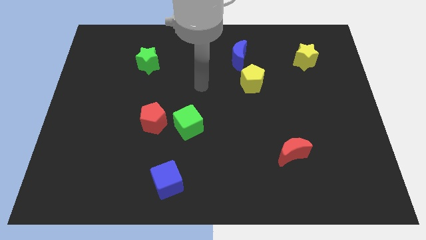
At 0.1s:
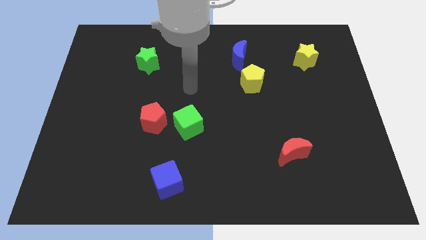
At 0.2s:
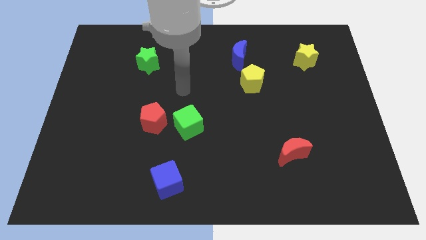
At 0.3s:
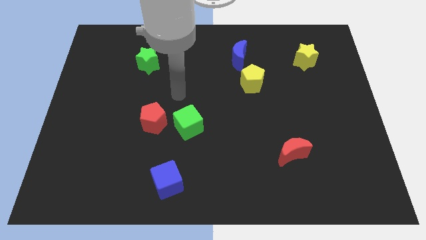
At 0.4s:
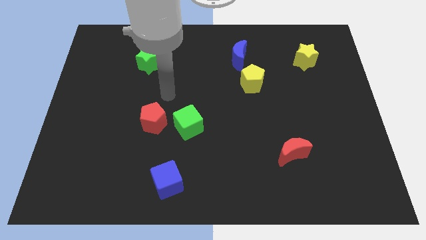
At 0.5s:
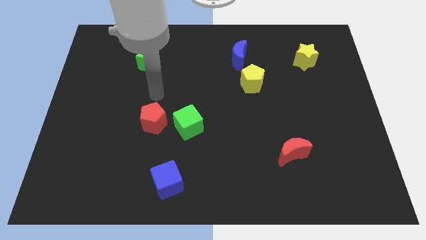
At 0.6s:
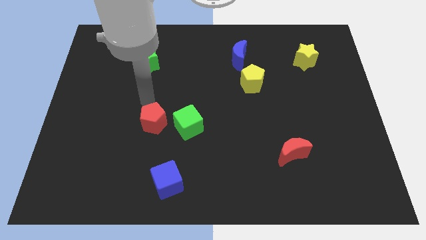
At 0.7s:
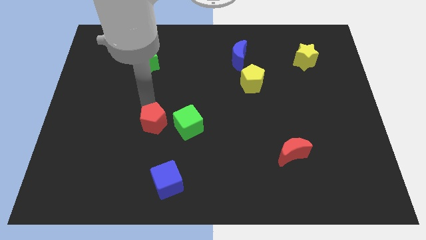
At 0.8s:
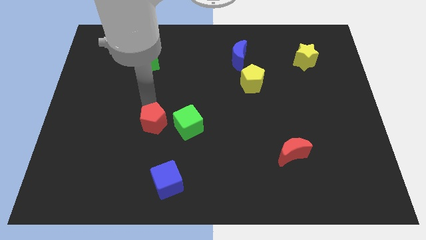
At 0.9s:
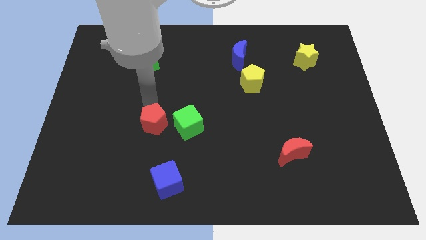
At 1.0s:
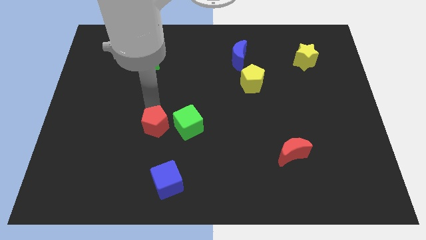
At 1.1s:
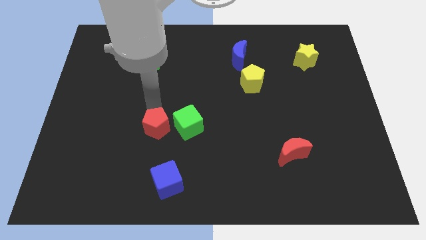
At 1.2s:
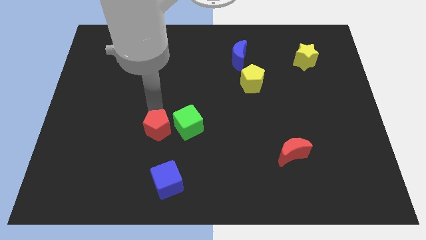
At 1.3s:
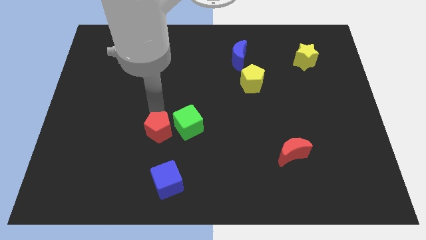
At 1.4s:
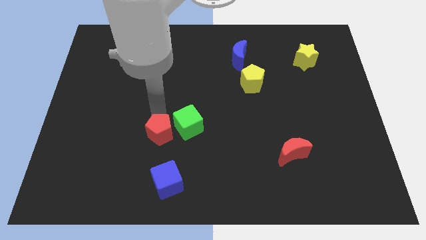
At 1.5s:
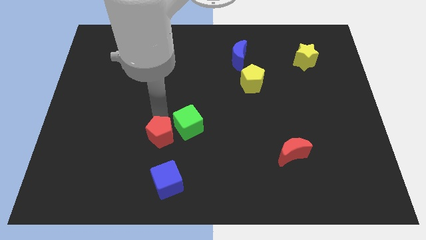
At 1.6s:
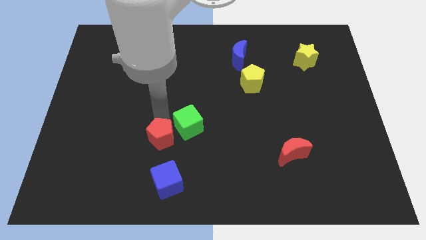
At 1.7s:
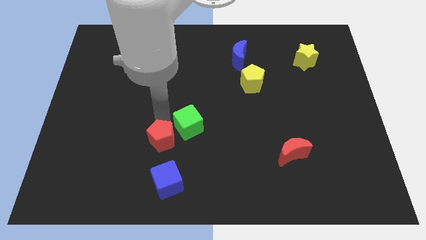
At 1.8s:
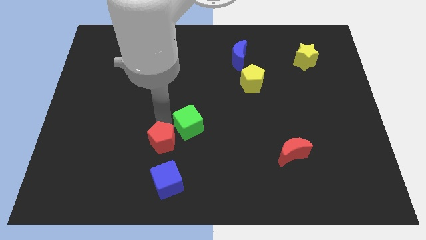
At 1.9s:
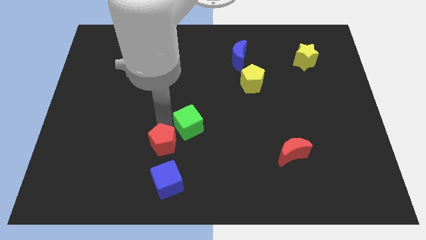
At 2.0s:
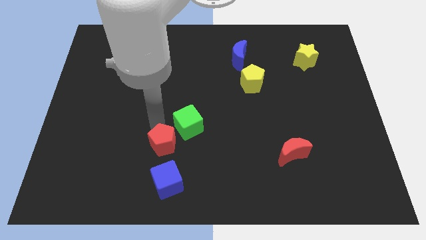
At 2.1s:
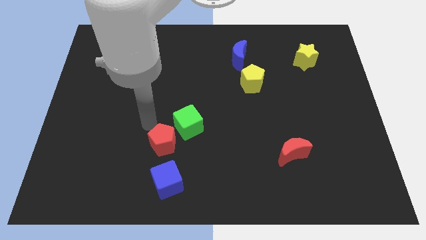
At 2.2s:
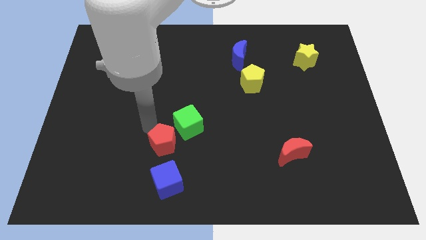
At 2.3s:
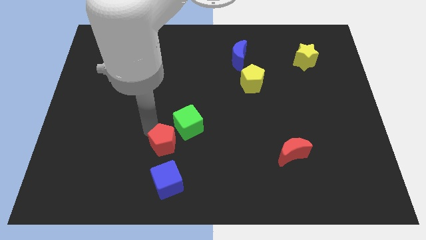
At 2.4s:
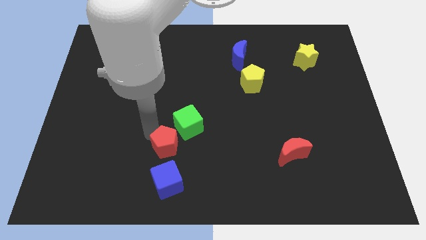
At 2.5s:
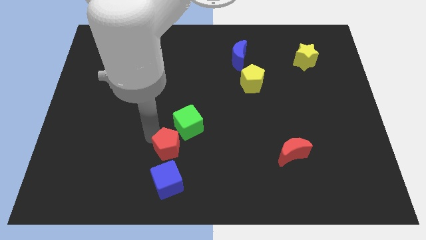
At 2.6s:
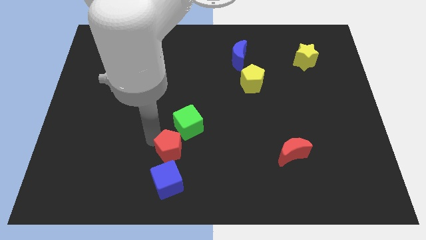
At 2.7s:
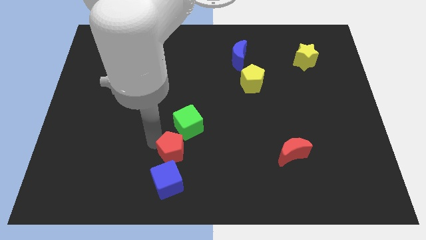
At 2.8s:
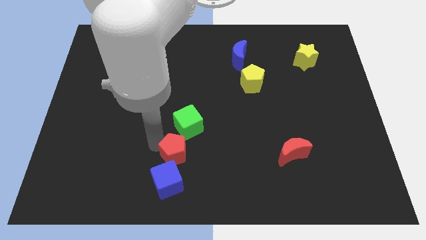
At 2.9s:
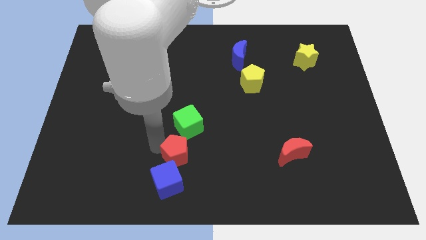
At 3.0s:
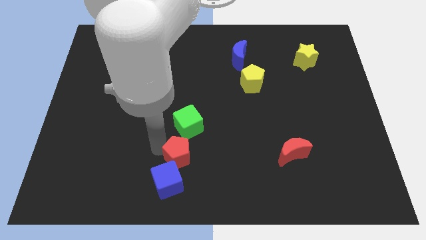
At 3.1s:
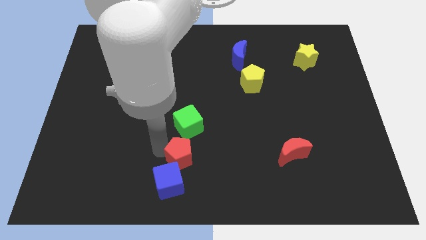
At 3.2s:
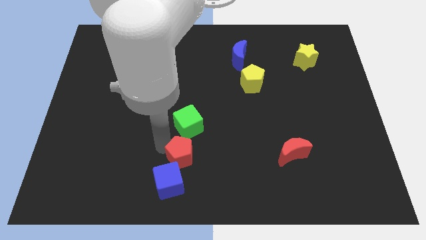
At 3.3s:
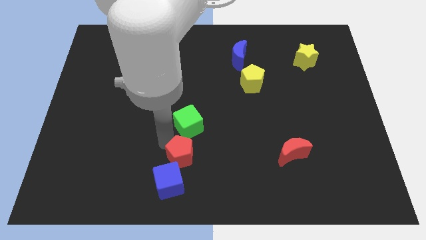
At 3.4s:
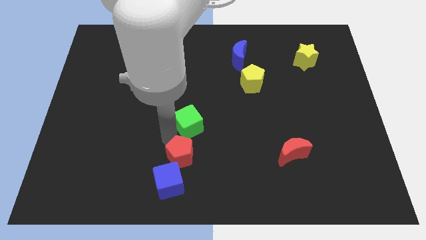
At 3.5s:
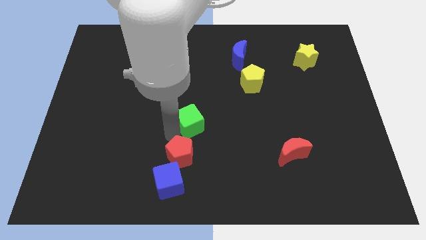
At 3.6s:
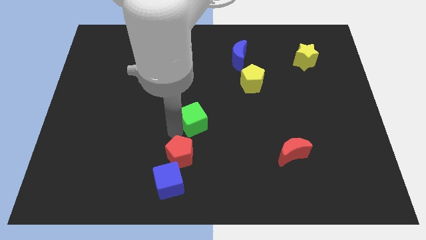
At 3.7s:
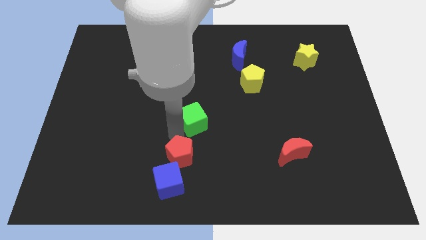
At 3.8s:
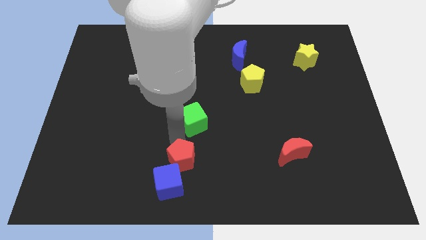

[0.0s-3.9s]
move the red pentagon to the bottom side

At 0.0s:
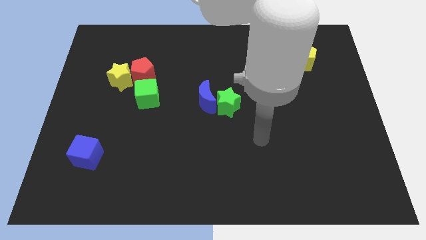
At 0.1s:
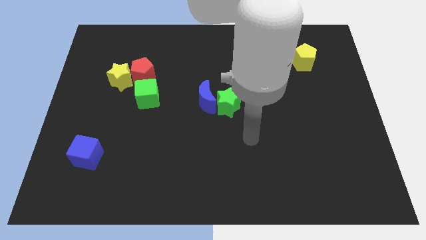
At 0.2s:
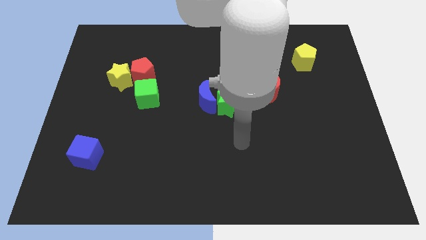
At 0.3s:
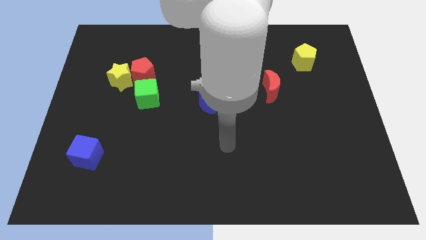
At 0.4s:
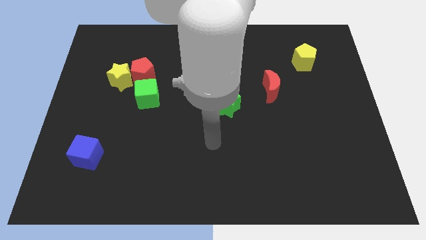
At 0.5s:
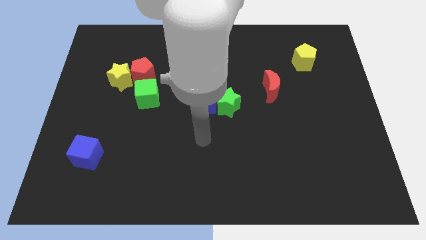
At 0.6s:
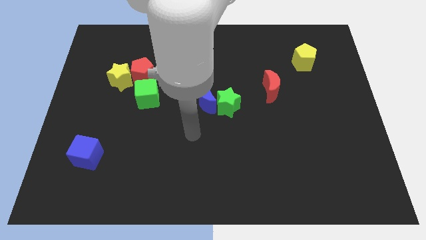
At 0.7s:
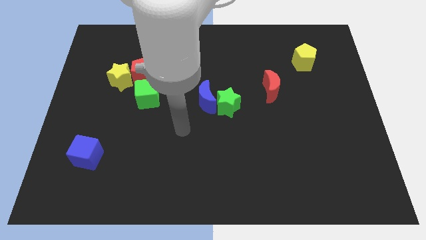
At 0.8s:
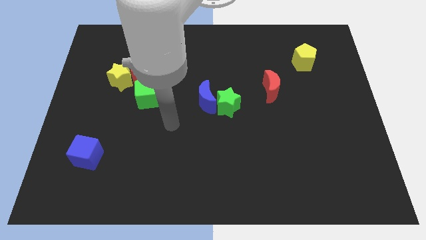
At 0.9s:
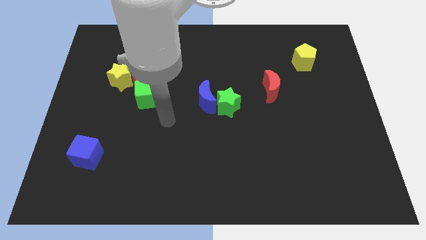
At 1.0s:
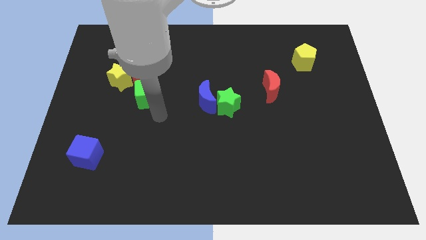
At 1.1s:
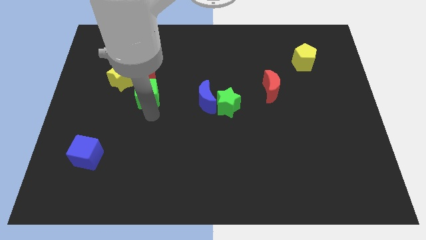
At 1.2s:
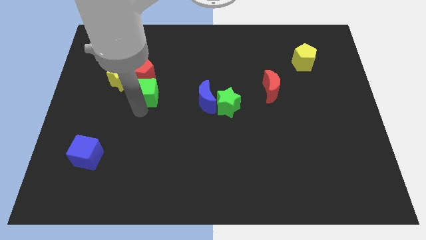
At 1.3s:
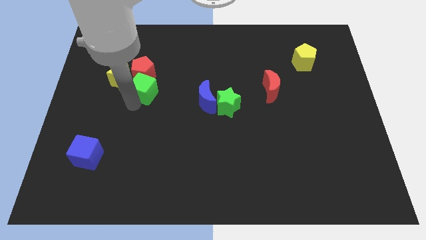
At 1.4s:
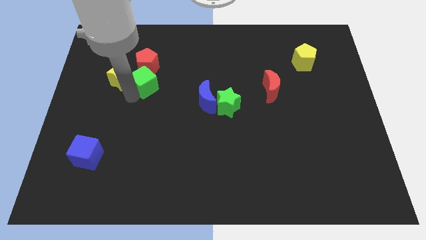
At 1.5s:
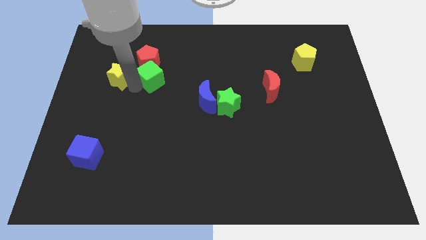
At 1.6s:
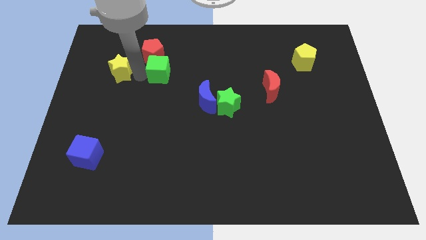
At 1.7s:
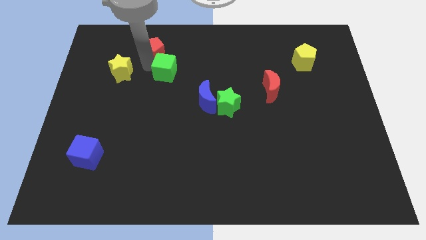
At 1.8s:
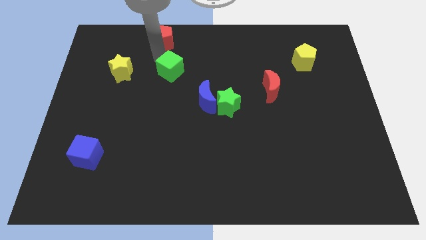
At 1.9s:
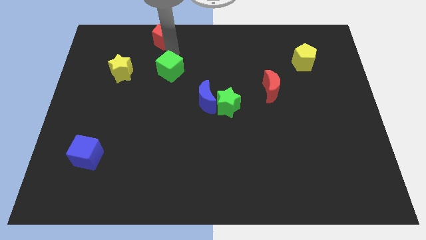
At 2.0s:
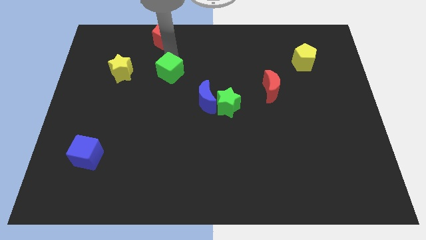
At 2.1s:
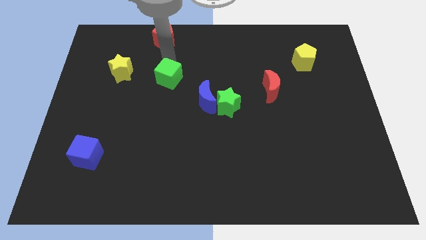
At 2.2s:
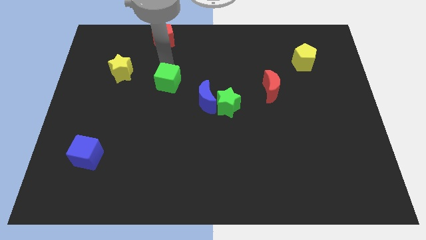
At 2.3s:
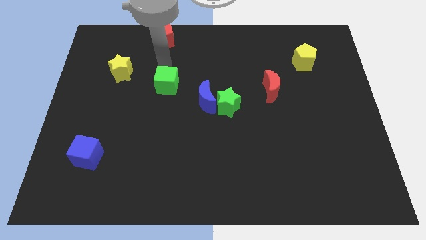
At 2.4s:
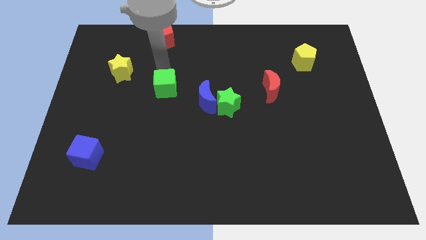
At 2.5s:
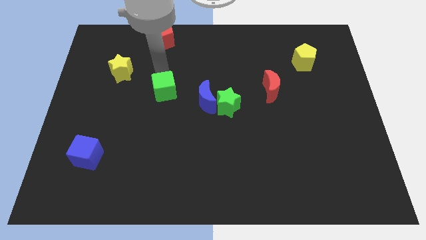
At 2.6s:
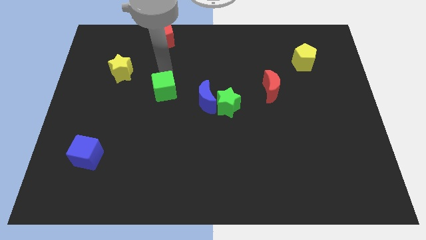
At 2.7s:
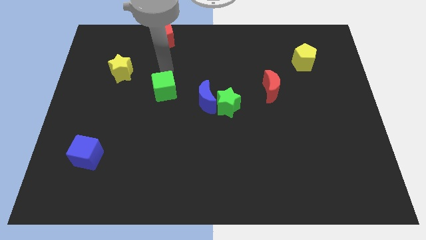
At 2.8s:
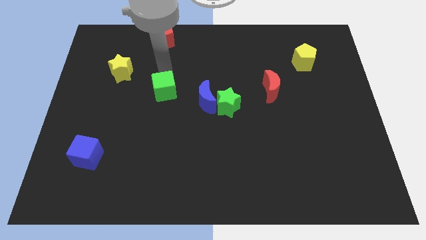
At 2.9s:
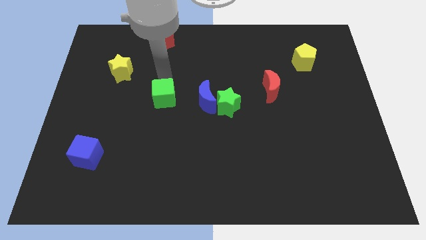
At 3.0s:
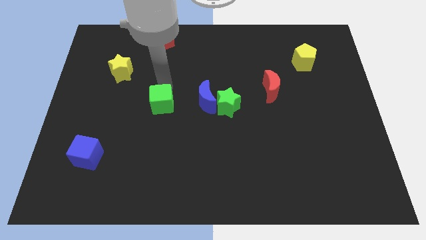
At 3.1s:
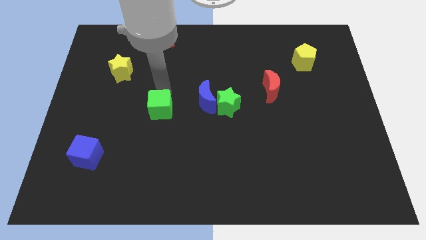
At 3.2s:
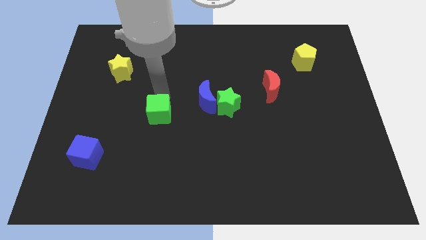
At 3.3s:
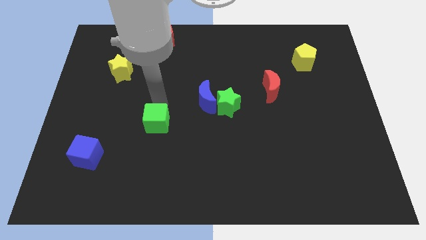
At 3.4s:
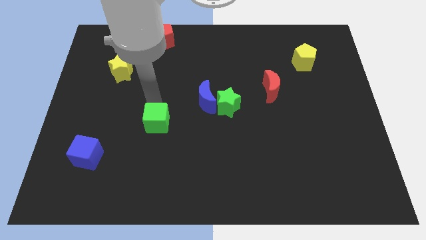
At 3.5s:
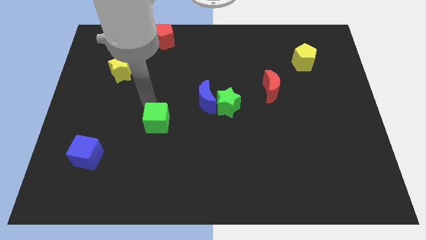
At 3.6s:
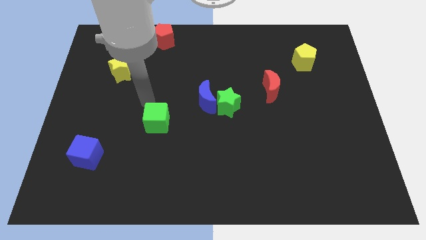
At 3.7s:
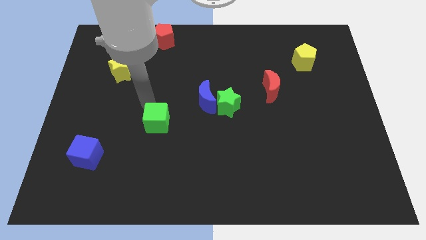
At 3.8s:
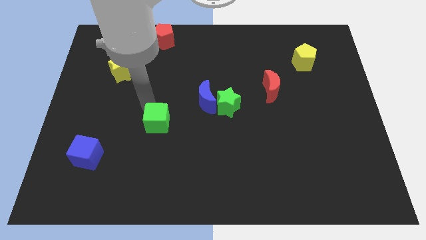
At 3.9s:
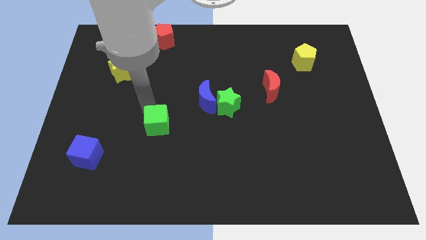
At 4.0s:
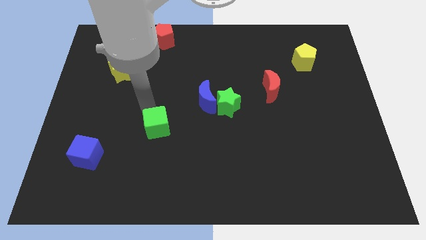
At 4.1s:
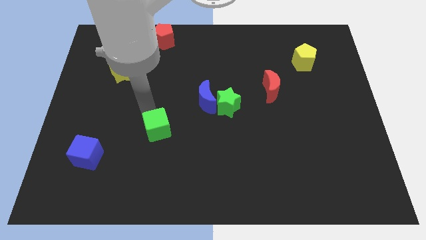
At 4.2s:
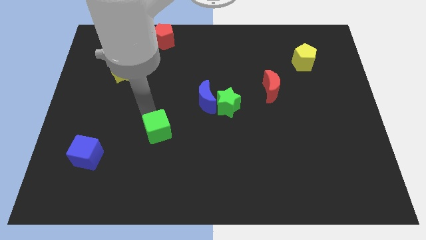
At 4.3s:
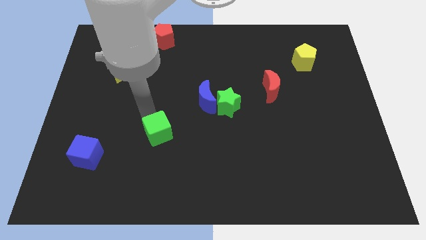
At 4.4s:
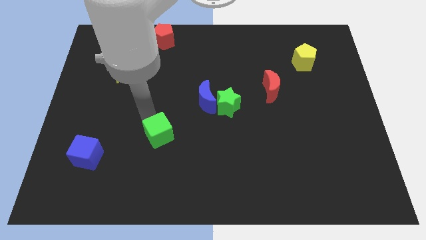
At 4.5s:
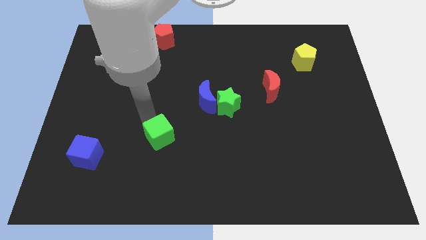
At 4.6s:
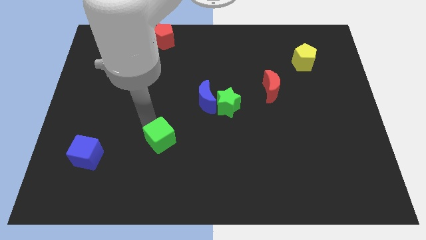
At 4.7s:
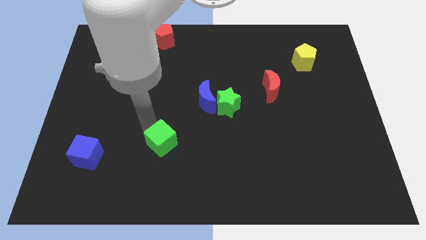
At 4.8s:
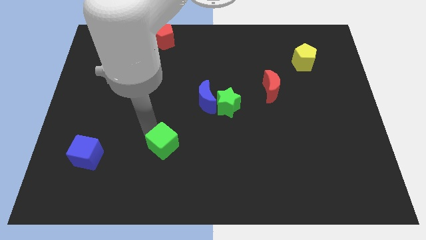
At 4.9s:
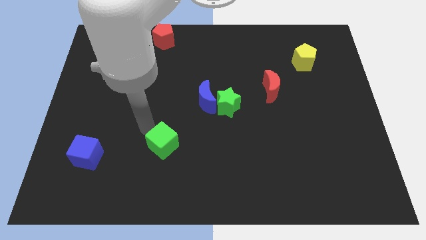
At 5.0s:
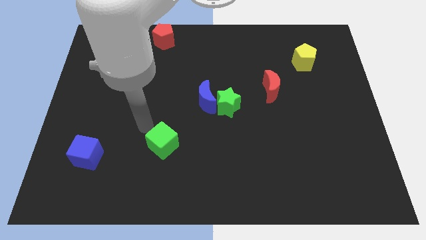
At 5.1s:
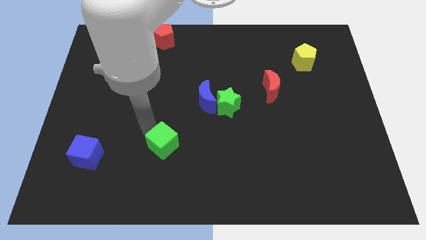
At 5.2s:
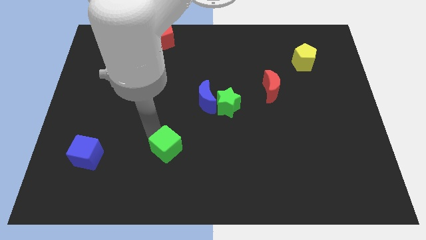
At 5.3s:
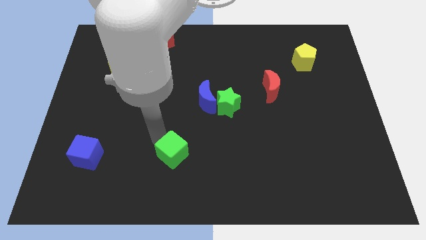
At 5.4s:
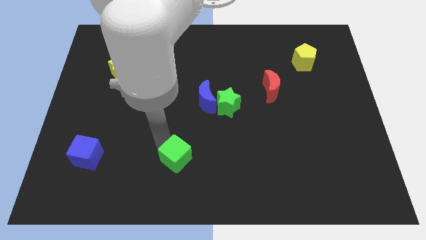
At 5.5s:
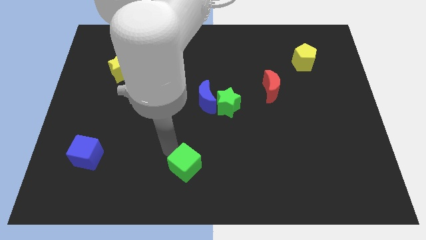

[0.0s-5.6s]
move the green cube to the bottom
